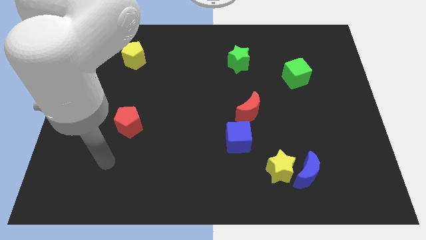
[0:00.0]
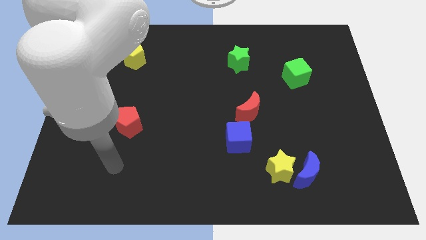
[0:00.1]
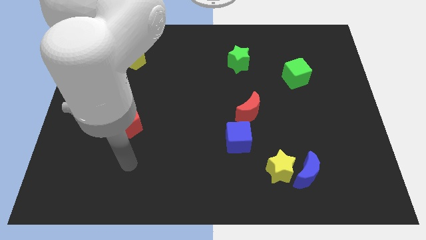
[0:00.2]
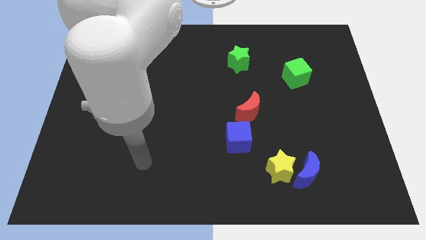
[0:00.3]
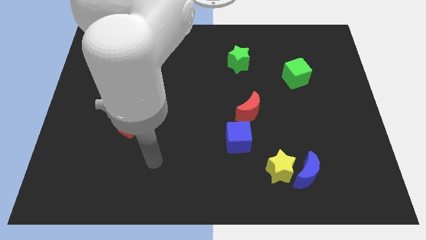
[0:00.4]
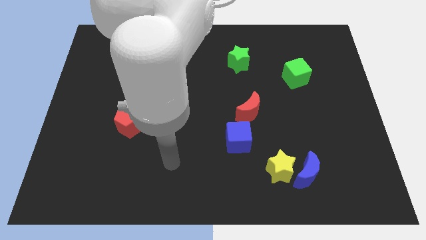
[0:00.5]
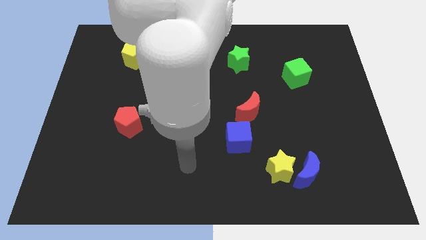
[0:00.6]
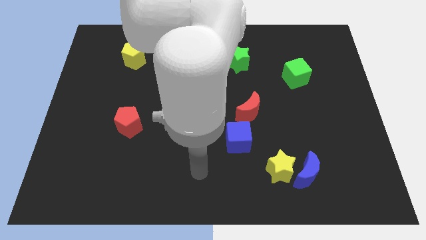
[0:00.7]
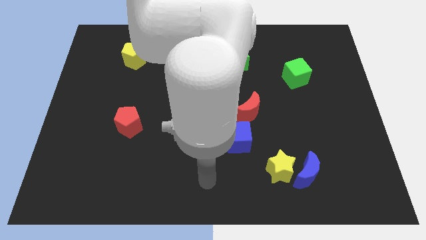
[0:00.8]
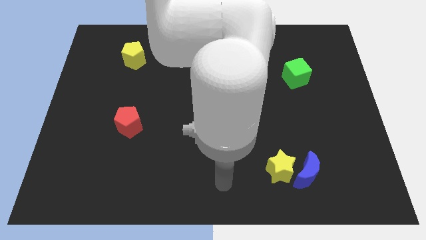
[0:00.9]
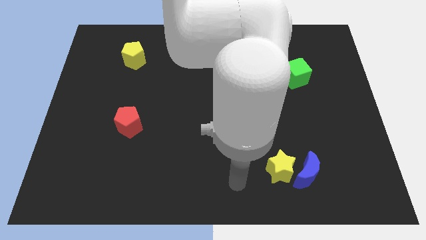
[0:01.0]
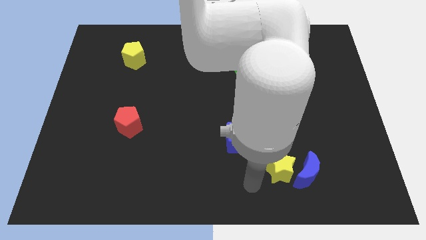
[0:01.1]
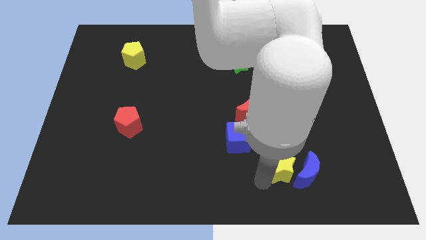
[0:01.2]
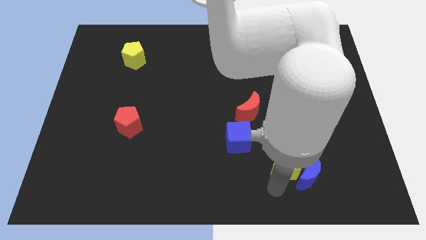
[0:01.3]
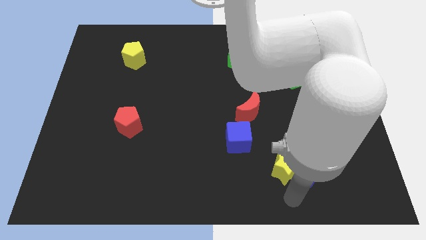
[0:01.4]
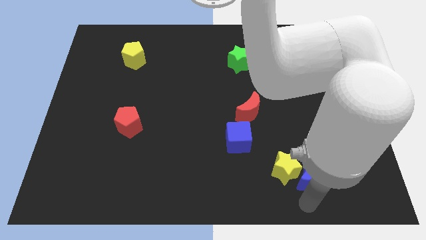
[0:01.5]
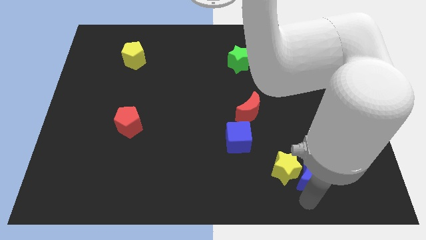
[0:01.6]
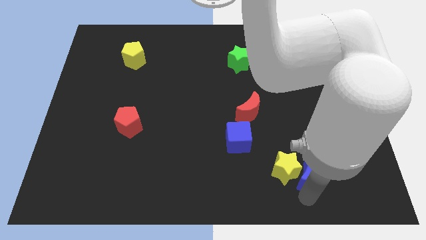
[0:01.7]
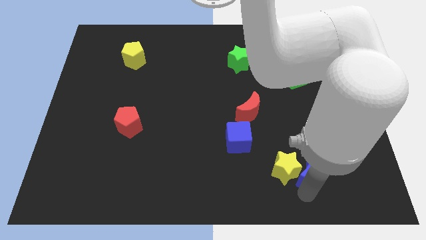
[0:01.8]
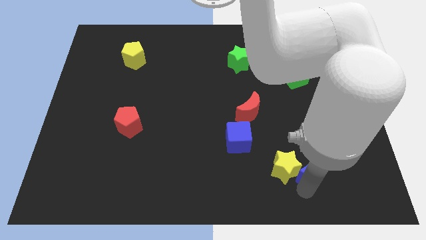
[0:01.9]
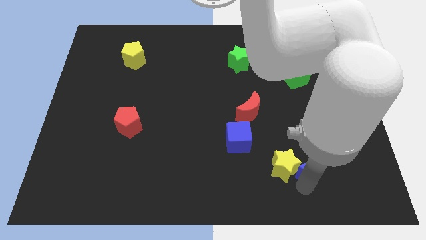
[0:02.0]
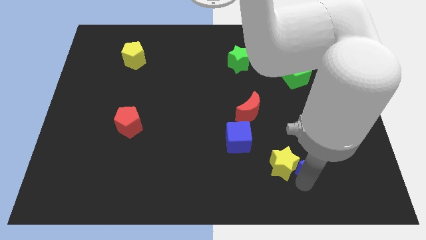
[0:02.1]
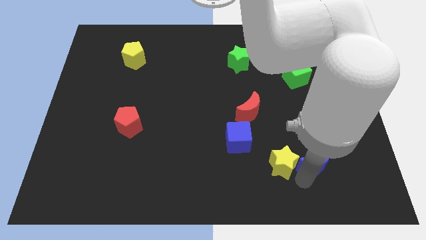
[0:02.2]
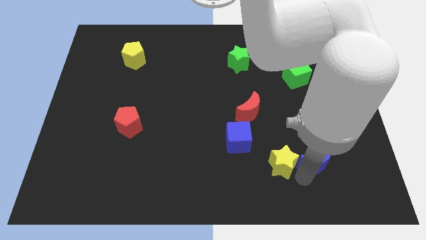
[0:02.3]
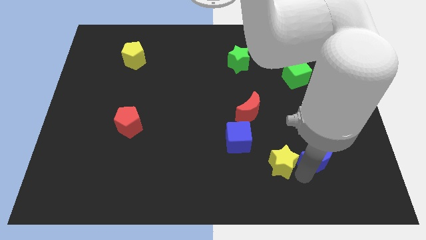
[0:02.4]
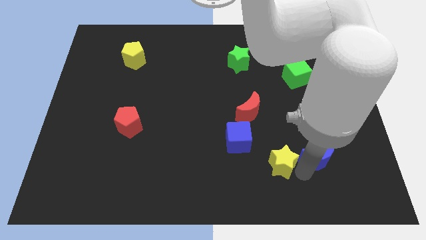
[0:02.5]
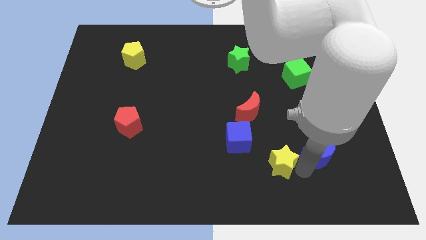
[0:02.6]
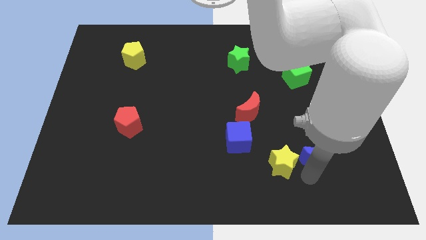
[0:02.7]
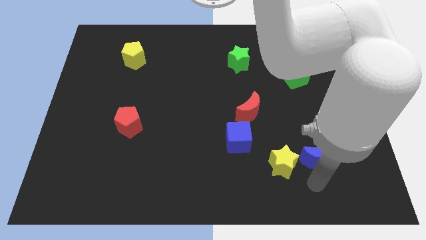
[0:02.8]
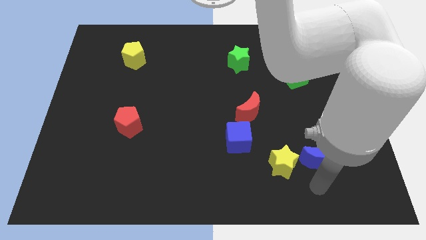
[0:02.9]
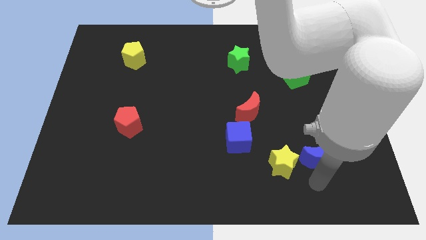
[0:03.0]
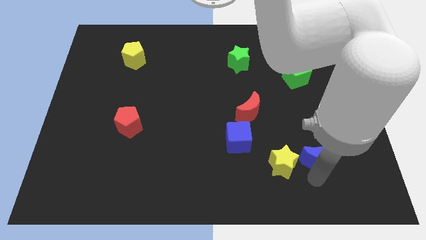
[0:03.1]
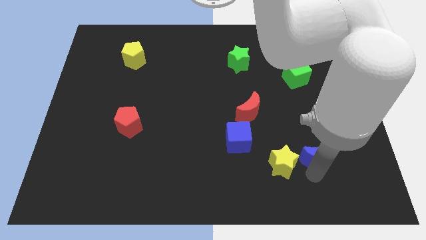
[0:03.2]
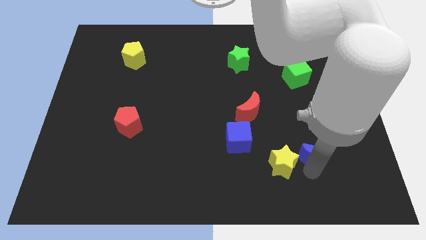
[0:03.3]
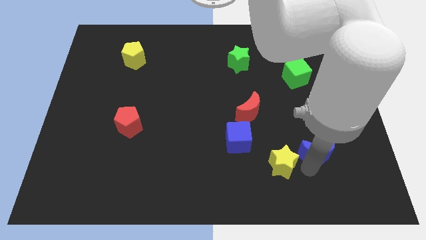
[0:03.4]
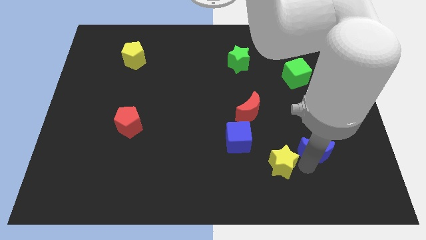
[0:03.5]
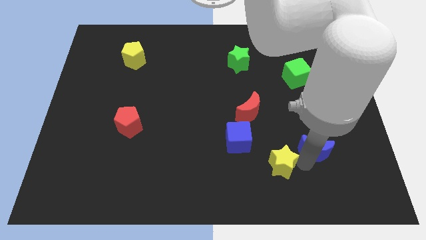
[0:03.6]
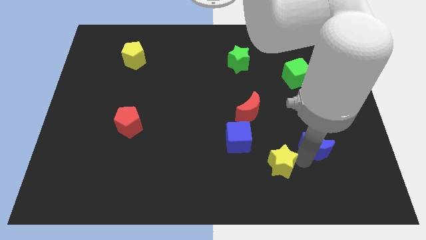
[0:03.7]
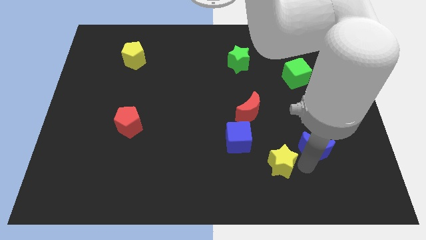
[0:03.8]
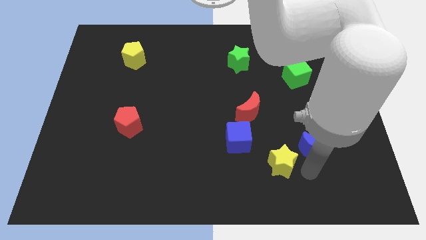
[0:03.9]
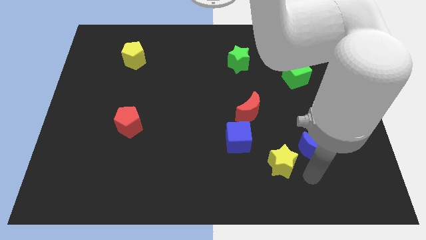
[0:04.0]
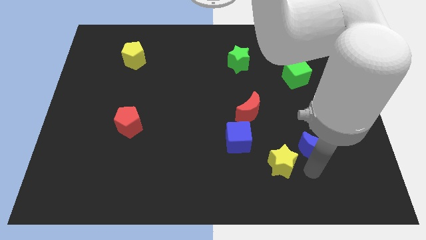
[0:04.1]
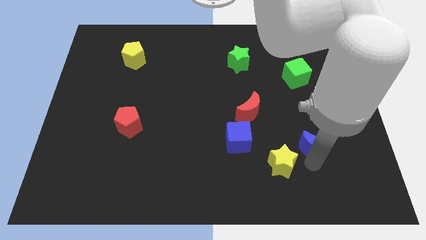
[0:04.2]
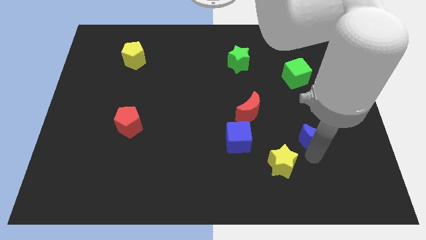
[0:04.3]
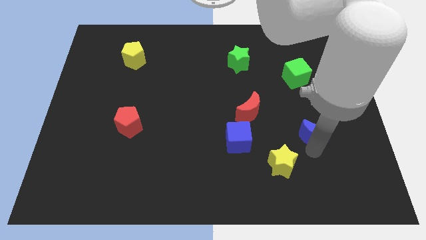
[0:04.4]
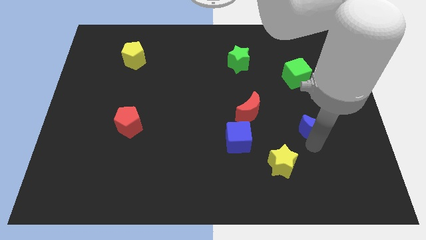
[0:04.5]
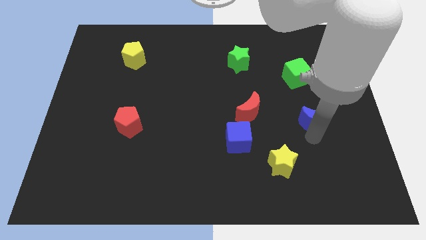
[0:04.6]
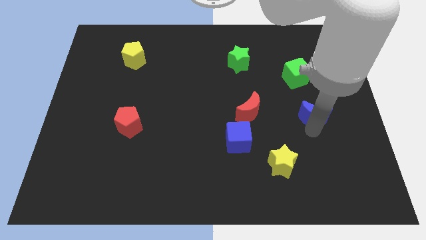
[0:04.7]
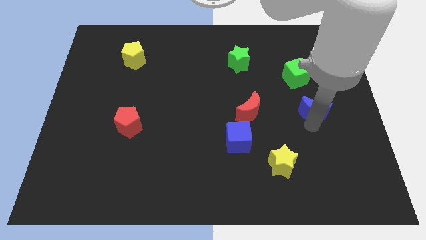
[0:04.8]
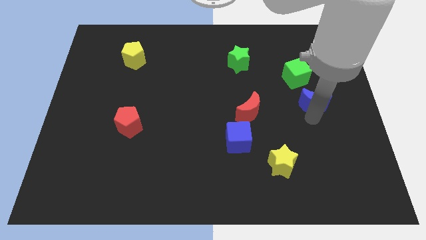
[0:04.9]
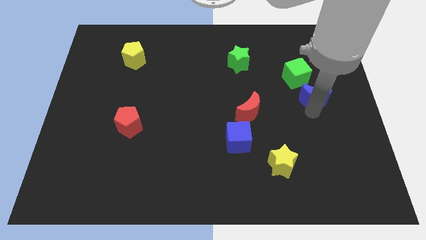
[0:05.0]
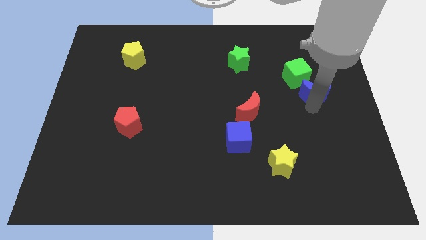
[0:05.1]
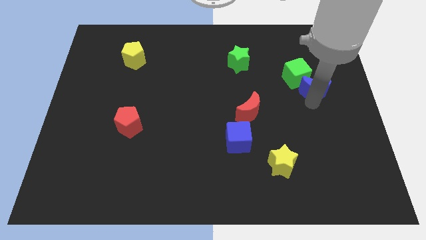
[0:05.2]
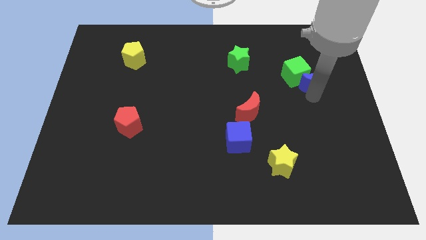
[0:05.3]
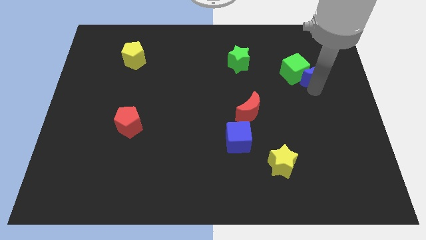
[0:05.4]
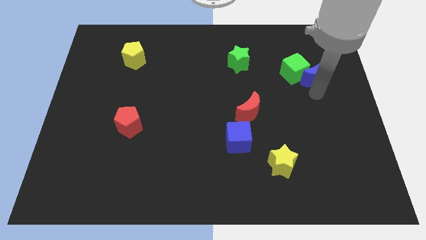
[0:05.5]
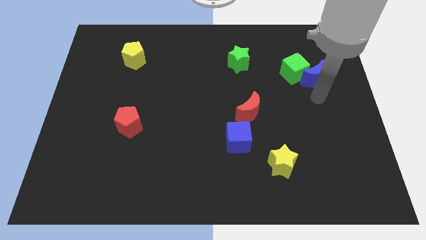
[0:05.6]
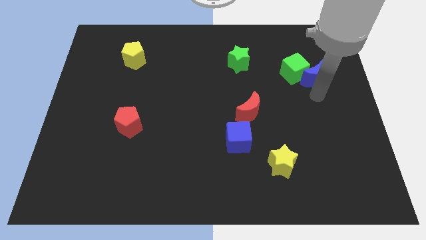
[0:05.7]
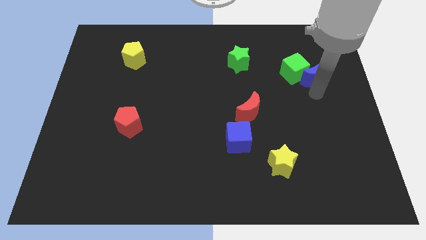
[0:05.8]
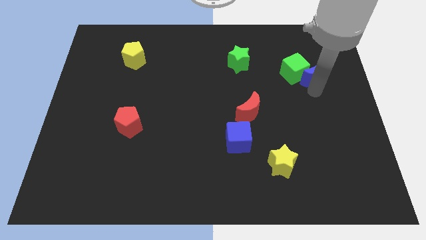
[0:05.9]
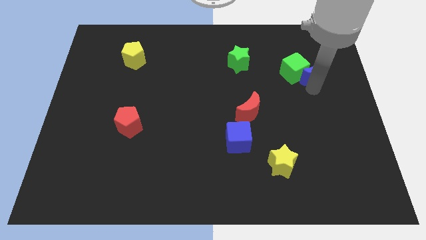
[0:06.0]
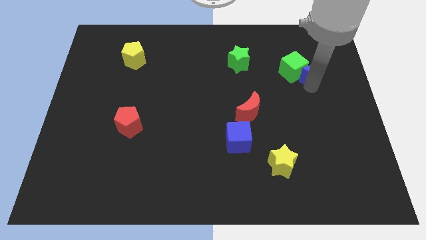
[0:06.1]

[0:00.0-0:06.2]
move the blue moon to the top right of the green cube

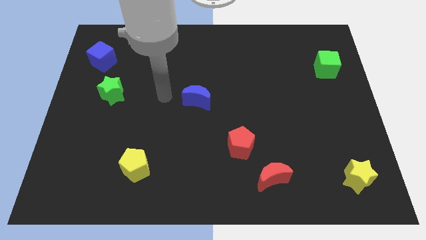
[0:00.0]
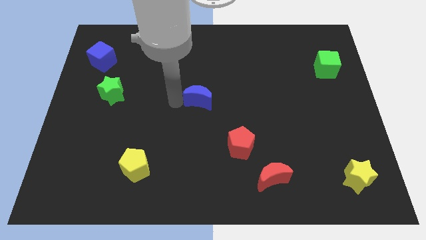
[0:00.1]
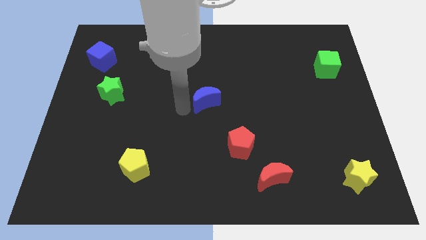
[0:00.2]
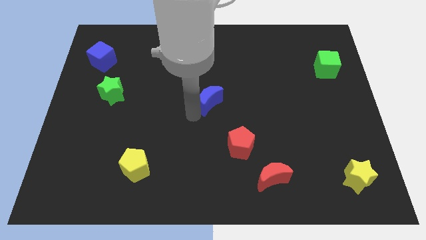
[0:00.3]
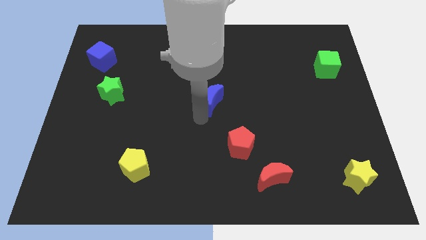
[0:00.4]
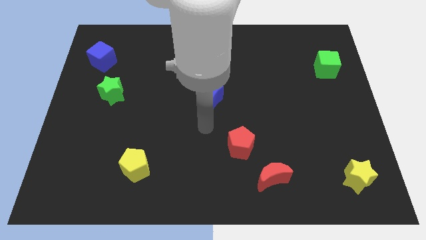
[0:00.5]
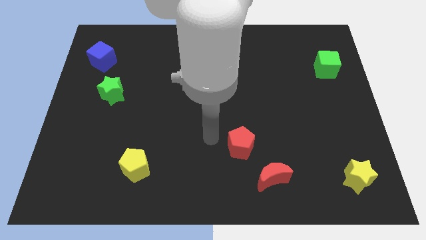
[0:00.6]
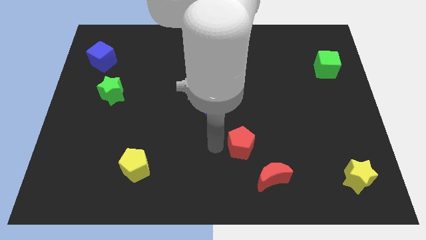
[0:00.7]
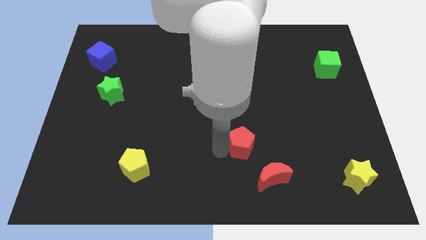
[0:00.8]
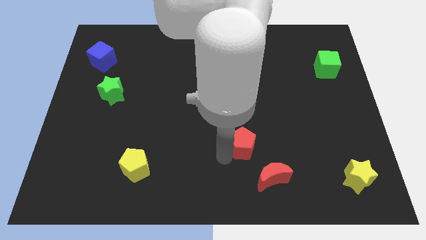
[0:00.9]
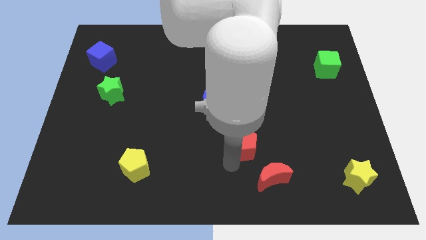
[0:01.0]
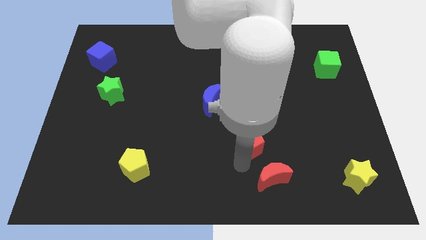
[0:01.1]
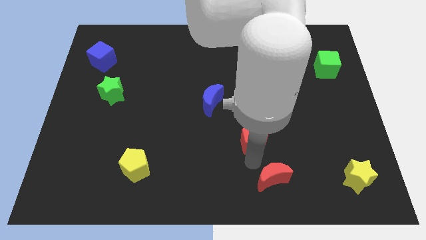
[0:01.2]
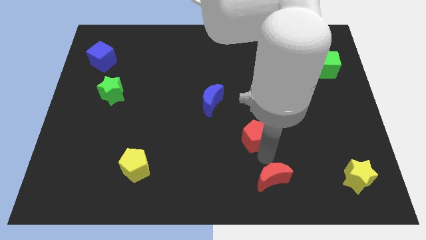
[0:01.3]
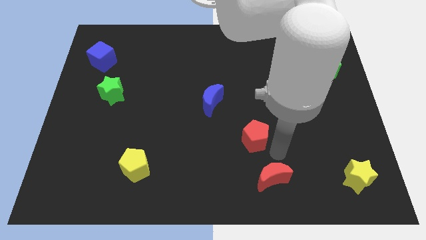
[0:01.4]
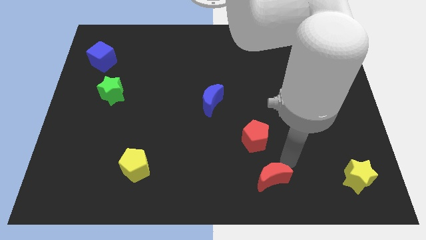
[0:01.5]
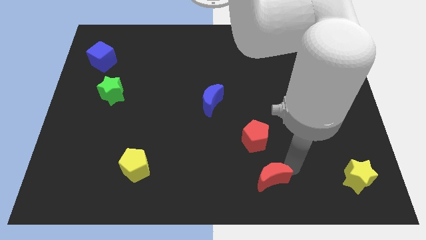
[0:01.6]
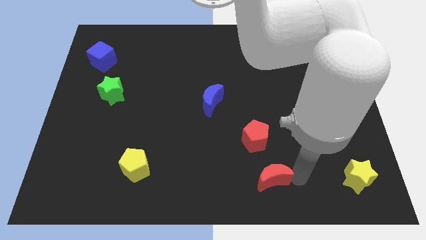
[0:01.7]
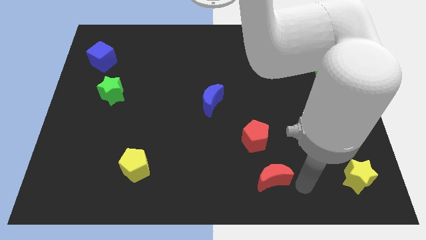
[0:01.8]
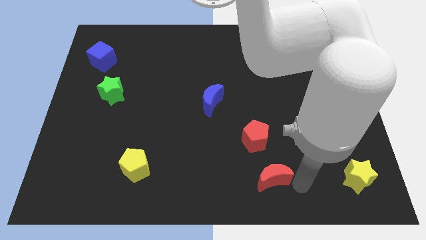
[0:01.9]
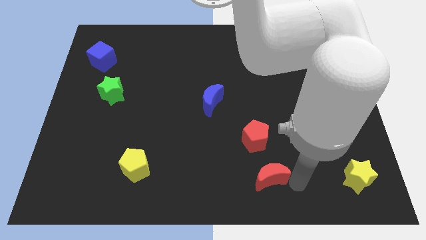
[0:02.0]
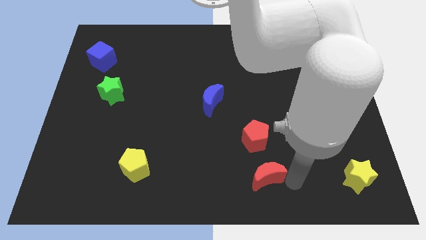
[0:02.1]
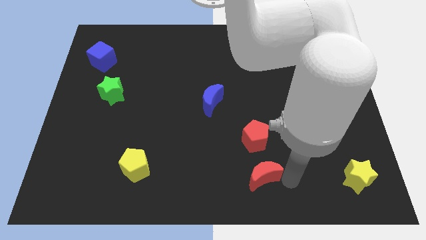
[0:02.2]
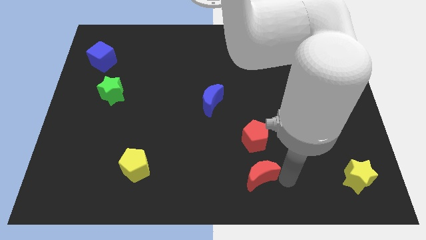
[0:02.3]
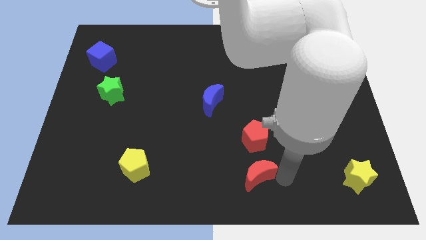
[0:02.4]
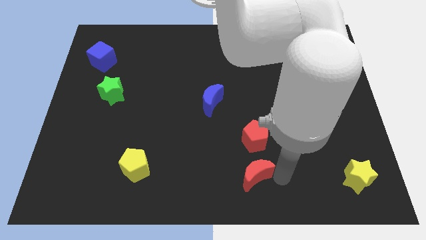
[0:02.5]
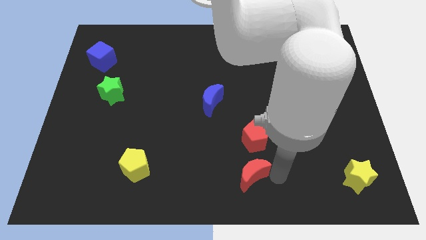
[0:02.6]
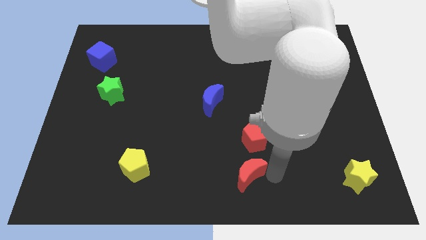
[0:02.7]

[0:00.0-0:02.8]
slide the red moon to the bottom left side of the red pentagon
